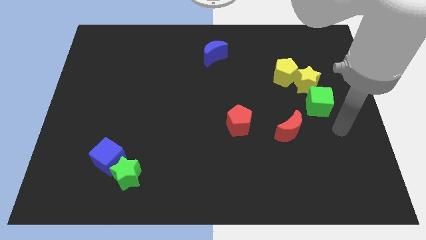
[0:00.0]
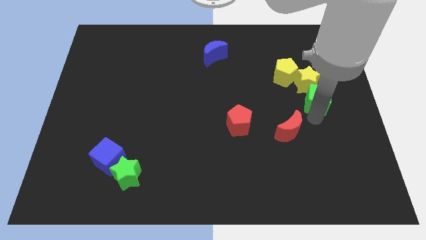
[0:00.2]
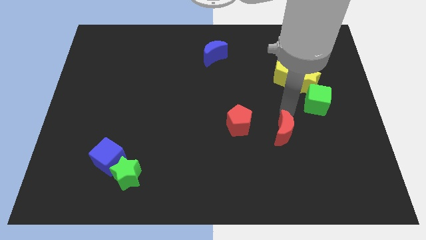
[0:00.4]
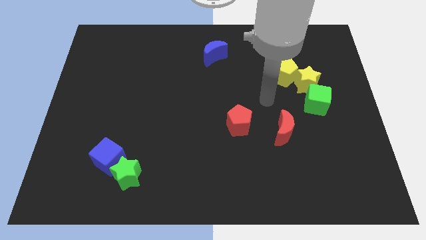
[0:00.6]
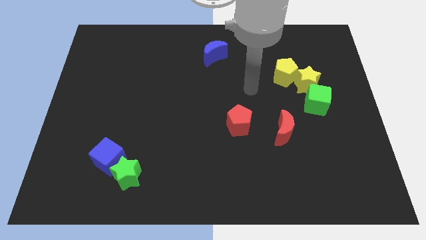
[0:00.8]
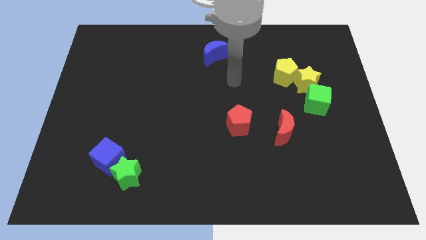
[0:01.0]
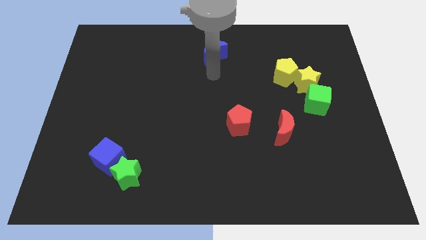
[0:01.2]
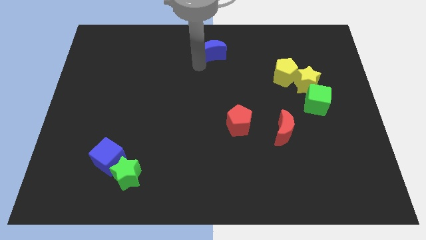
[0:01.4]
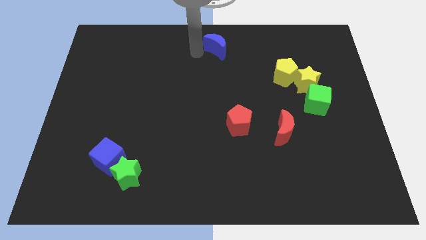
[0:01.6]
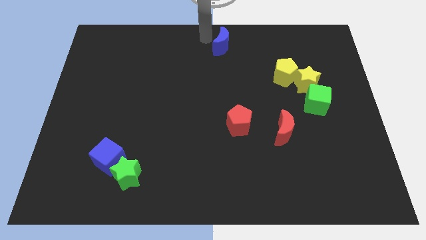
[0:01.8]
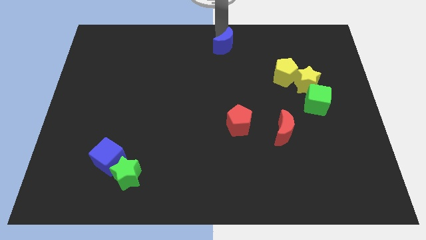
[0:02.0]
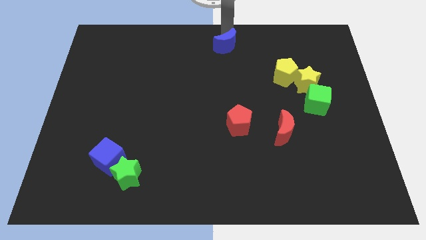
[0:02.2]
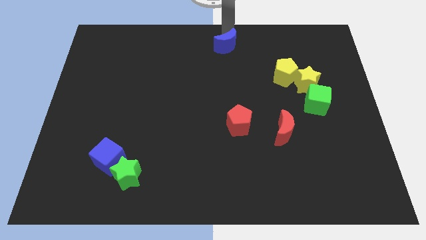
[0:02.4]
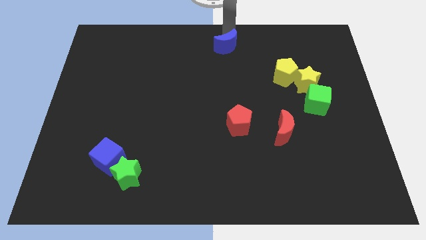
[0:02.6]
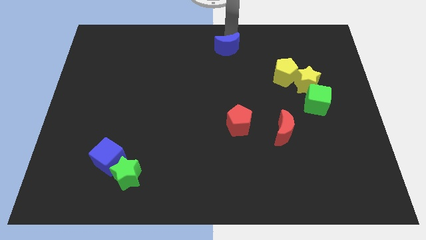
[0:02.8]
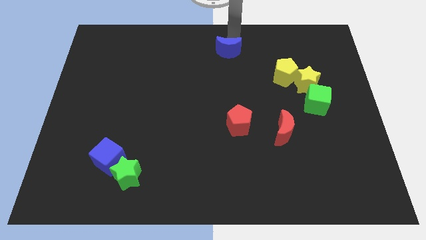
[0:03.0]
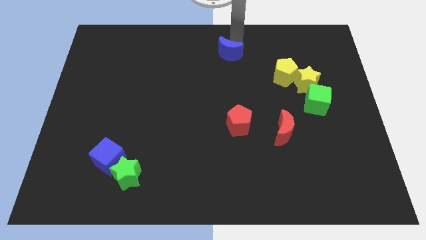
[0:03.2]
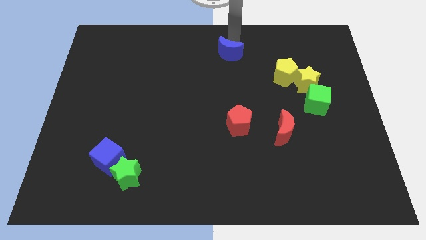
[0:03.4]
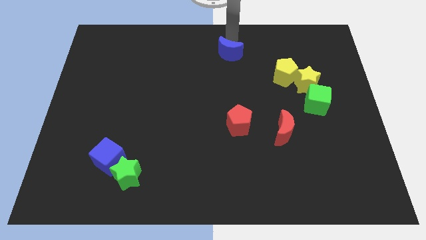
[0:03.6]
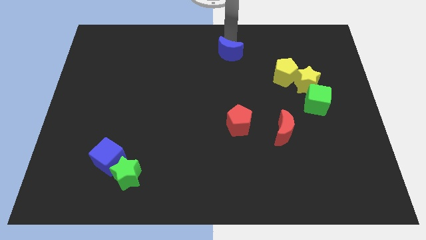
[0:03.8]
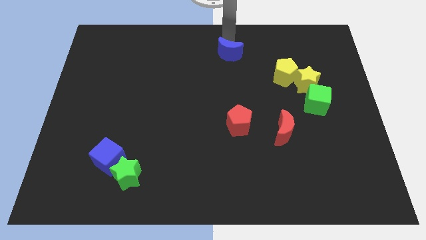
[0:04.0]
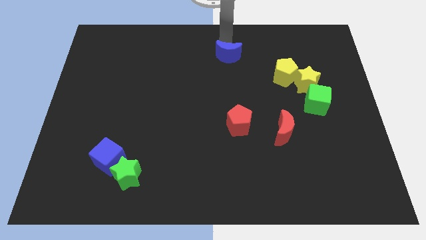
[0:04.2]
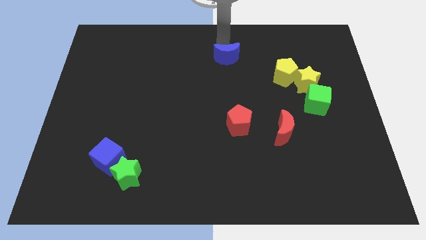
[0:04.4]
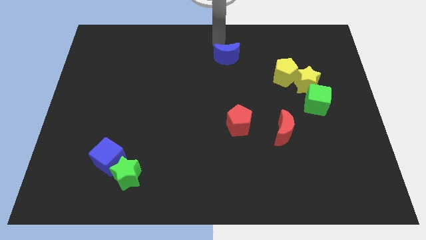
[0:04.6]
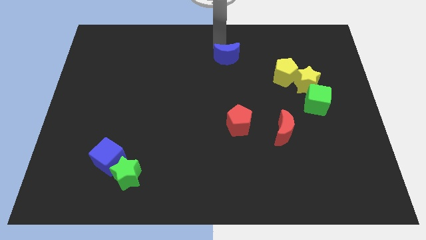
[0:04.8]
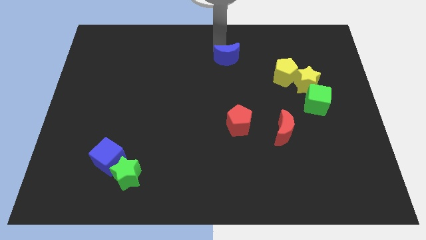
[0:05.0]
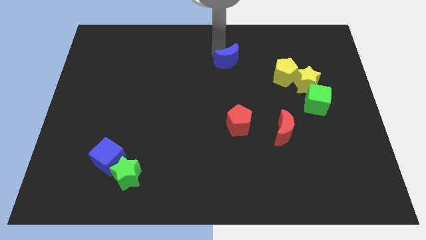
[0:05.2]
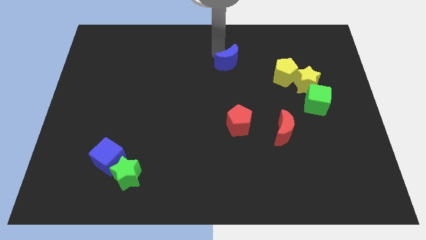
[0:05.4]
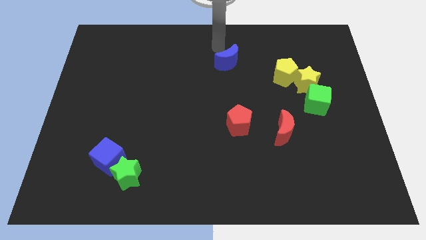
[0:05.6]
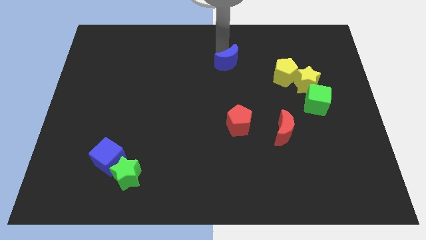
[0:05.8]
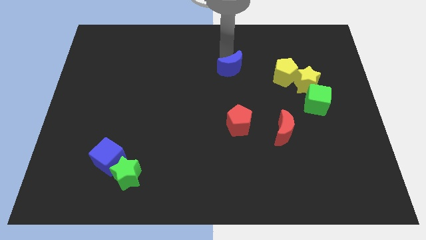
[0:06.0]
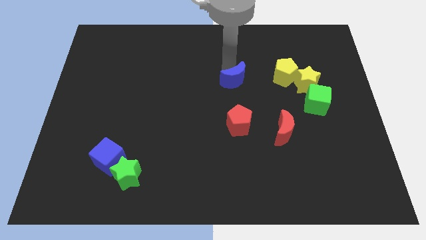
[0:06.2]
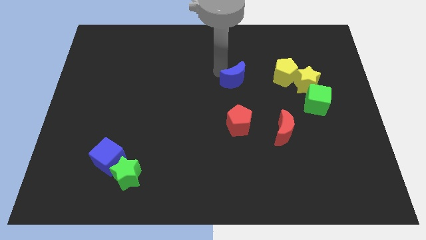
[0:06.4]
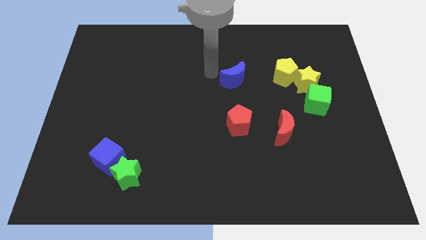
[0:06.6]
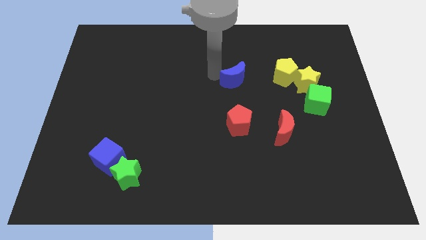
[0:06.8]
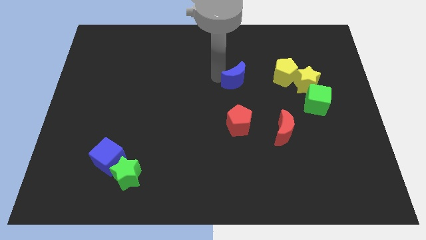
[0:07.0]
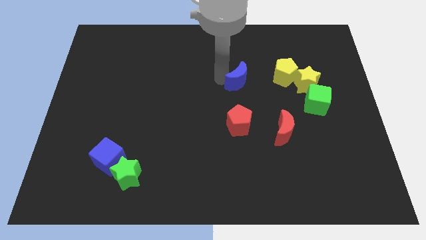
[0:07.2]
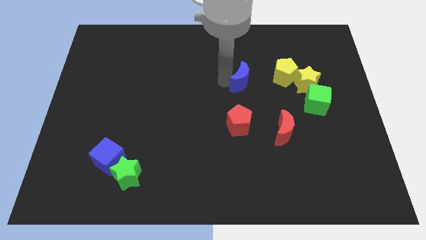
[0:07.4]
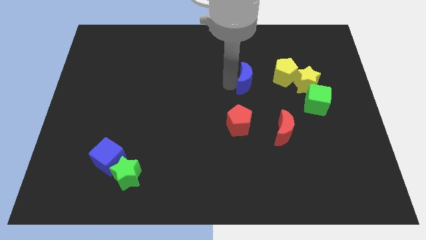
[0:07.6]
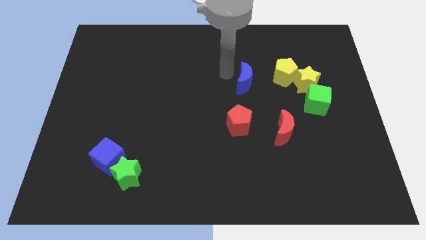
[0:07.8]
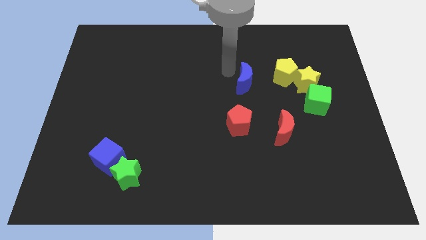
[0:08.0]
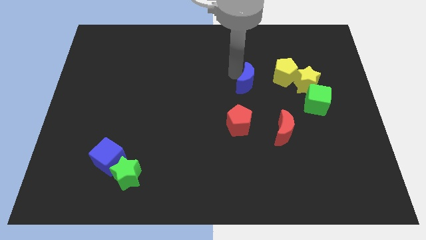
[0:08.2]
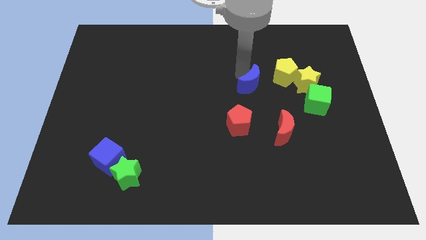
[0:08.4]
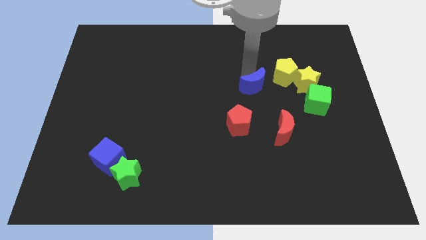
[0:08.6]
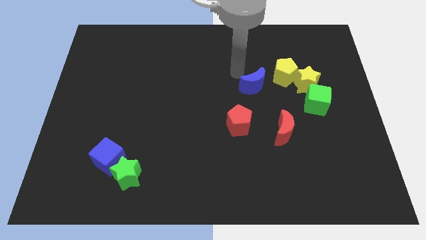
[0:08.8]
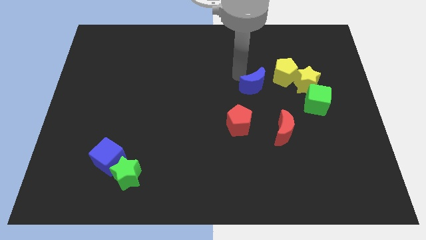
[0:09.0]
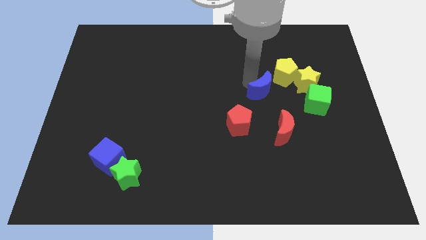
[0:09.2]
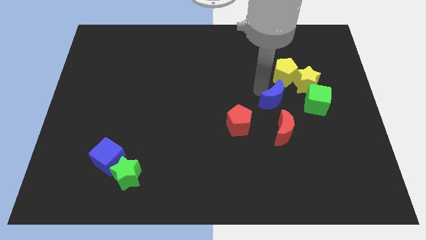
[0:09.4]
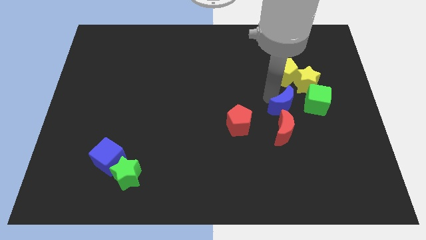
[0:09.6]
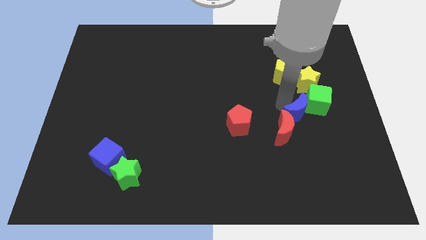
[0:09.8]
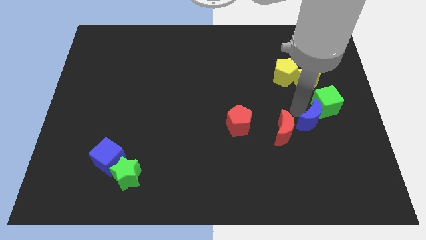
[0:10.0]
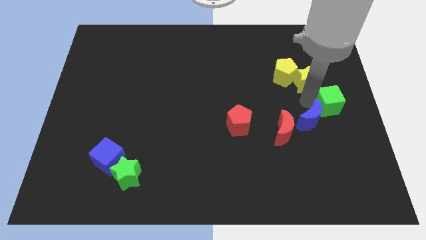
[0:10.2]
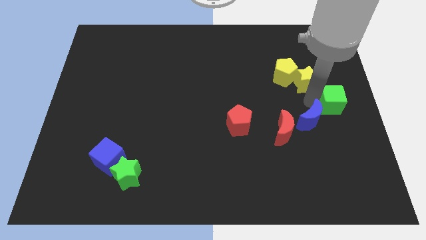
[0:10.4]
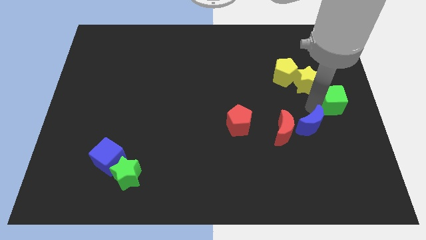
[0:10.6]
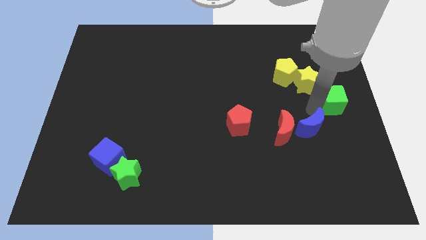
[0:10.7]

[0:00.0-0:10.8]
put the blue moon to the bottom right side of the red moon

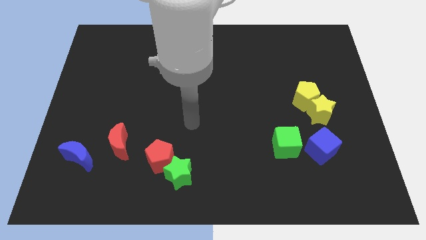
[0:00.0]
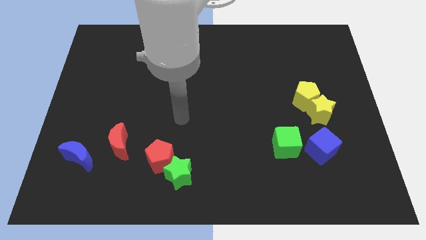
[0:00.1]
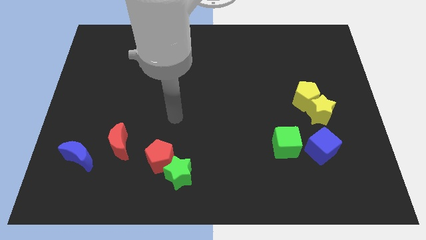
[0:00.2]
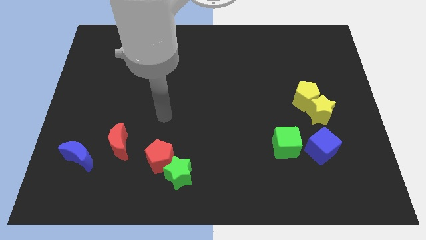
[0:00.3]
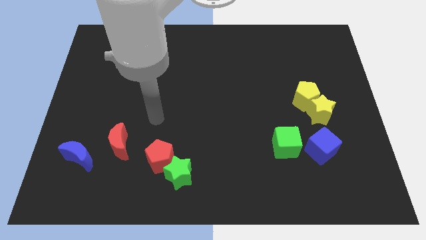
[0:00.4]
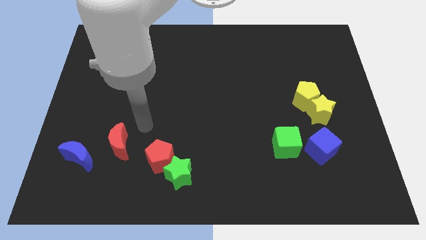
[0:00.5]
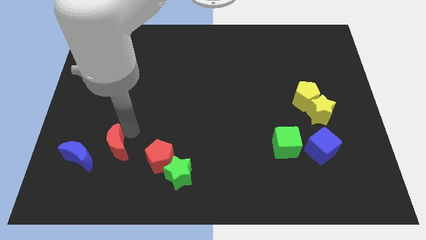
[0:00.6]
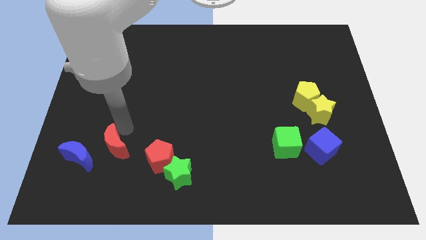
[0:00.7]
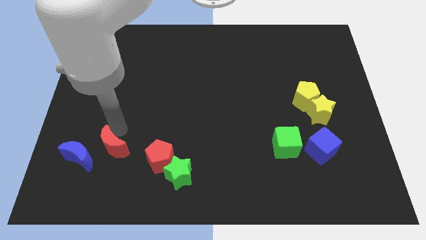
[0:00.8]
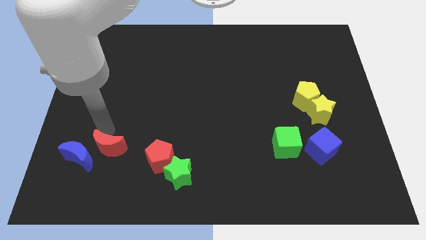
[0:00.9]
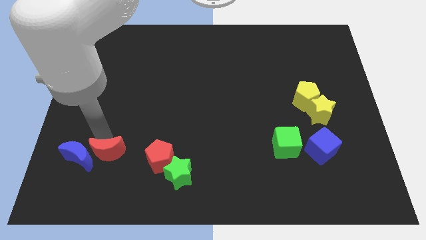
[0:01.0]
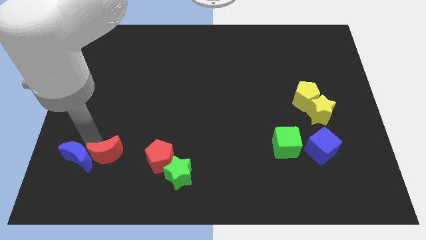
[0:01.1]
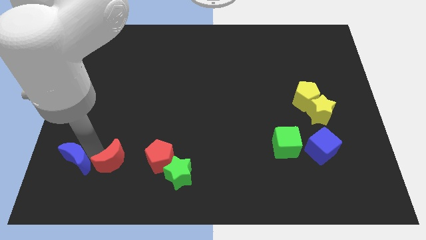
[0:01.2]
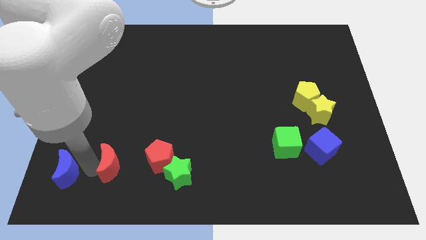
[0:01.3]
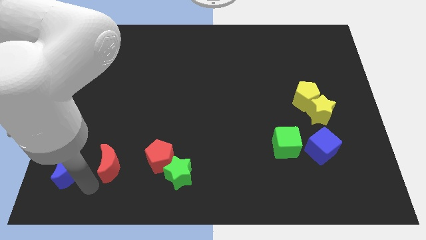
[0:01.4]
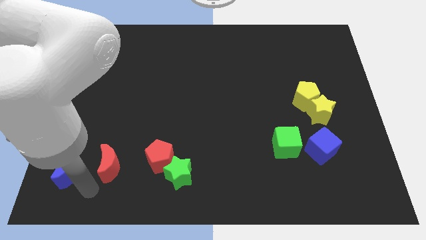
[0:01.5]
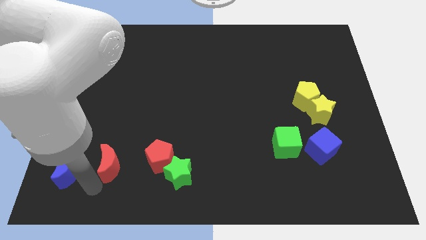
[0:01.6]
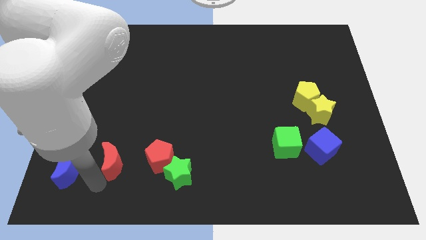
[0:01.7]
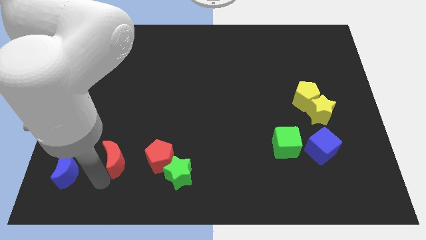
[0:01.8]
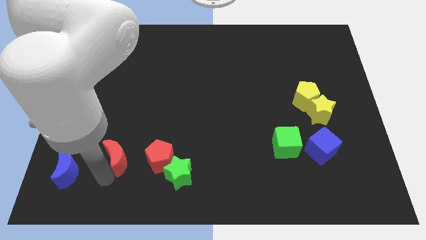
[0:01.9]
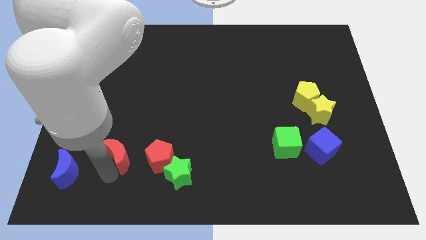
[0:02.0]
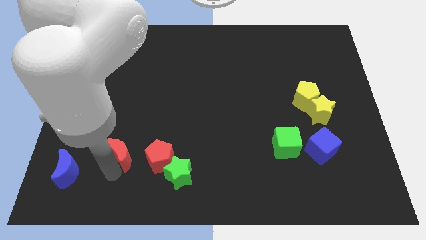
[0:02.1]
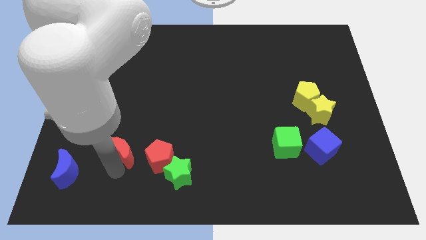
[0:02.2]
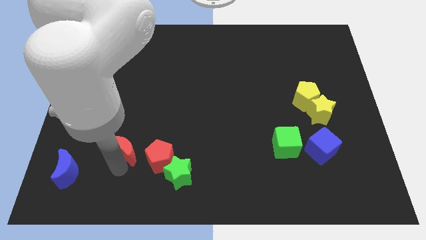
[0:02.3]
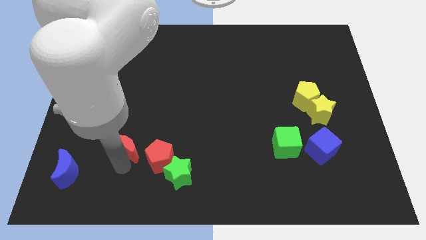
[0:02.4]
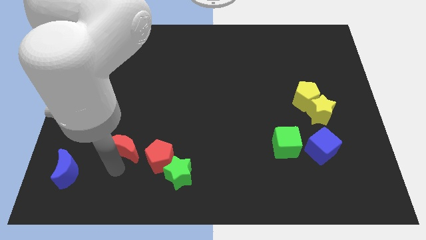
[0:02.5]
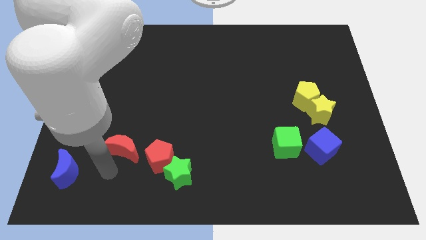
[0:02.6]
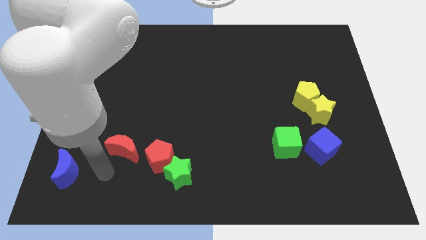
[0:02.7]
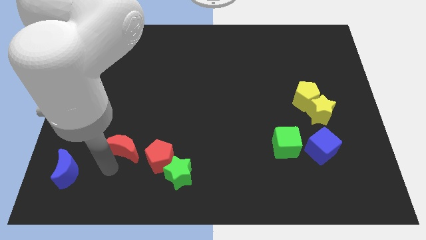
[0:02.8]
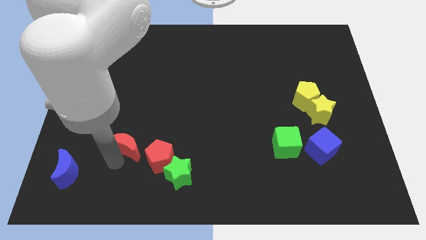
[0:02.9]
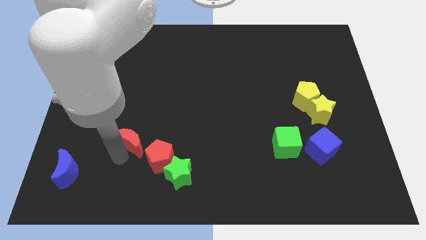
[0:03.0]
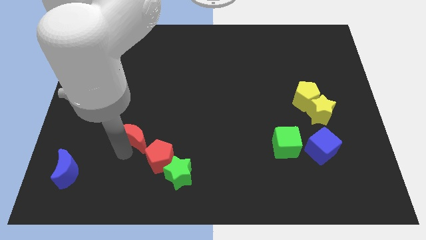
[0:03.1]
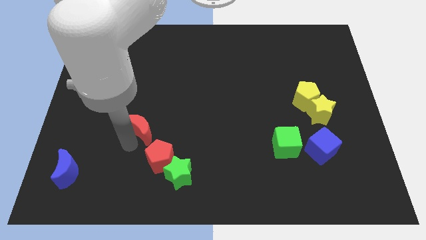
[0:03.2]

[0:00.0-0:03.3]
move the red moon to the top side of the red pentagon
